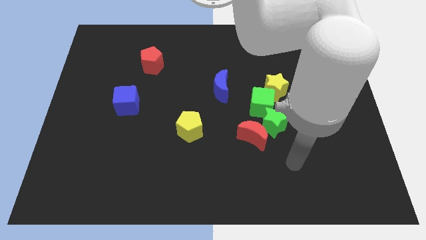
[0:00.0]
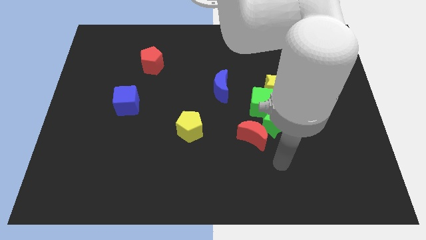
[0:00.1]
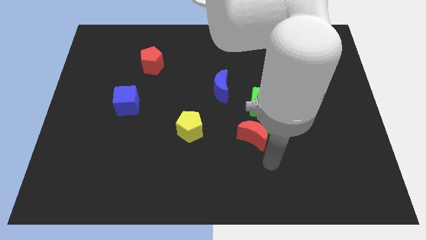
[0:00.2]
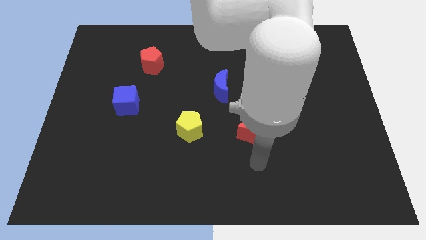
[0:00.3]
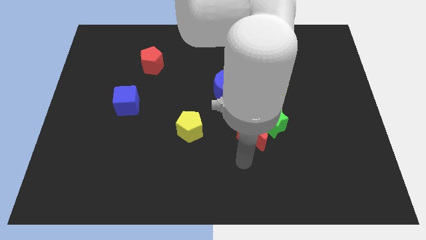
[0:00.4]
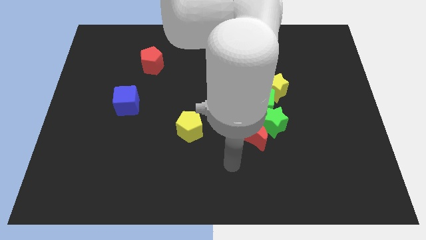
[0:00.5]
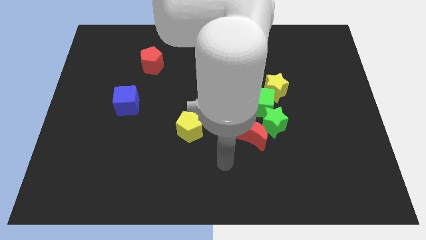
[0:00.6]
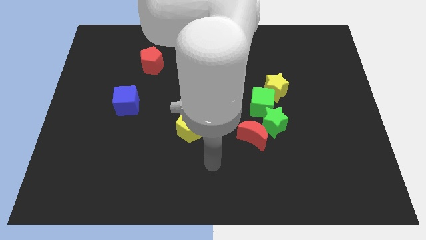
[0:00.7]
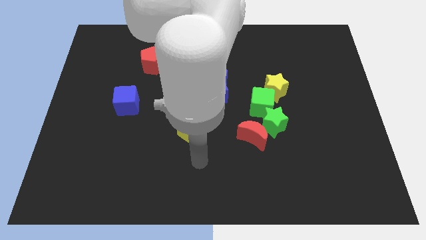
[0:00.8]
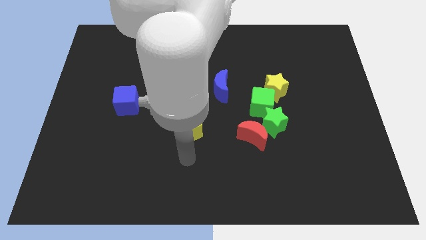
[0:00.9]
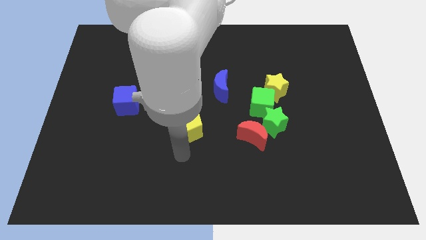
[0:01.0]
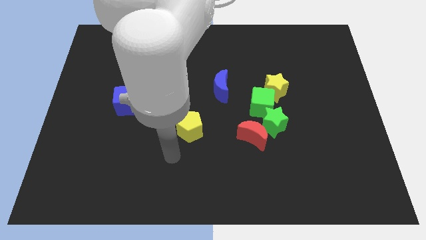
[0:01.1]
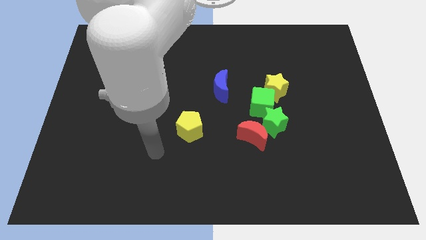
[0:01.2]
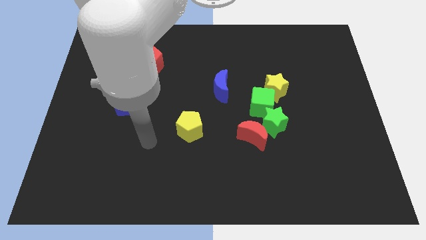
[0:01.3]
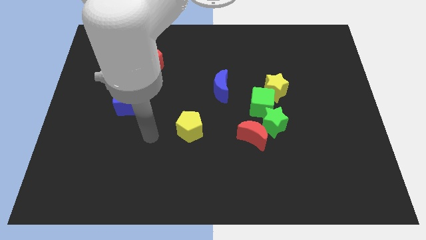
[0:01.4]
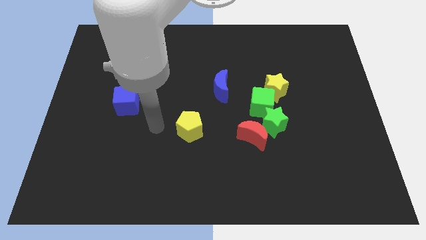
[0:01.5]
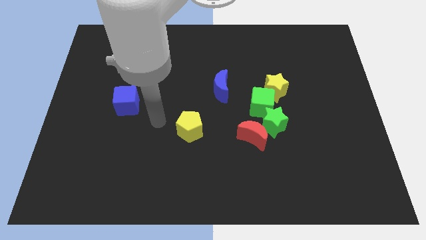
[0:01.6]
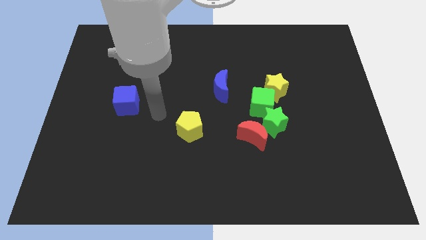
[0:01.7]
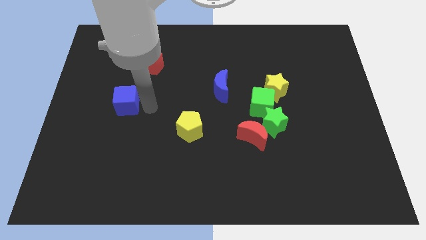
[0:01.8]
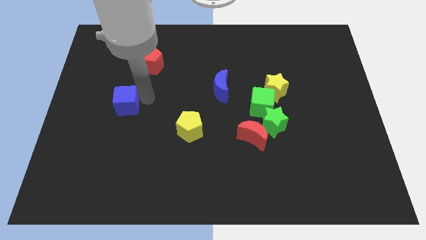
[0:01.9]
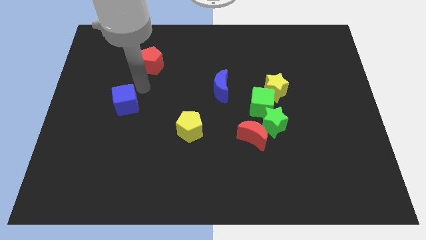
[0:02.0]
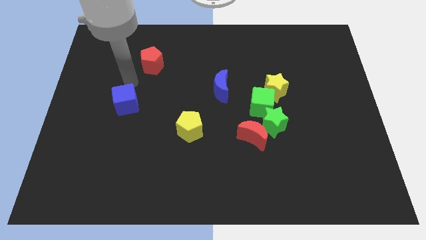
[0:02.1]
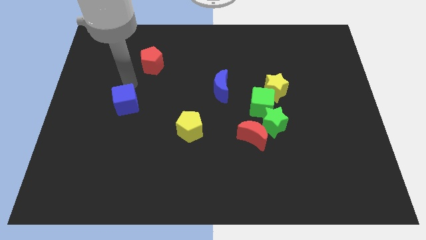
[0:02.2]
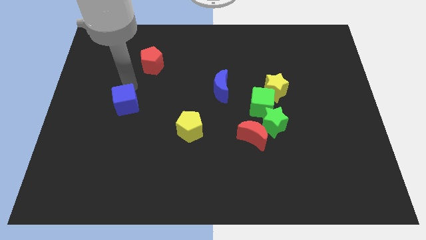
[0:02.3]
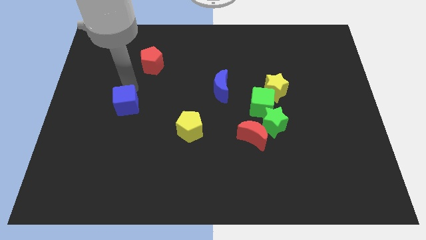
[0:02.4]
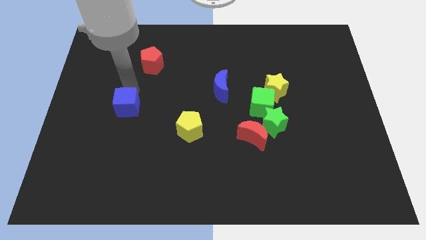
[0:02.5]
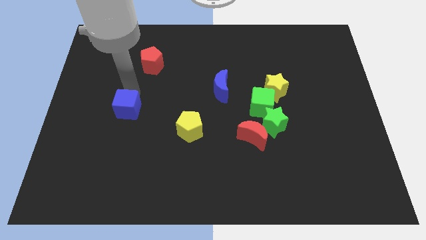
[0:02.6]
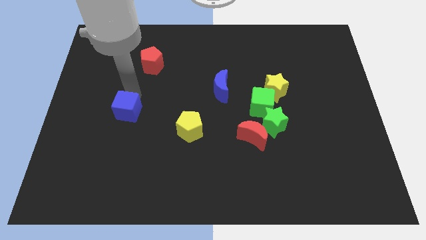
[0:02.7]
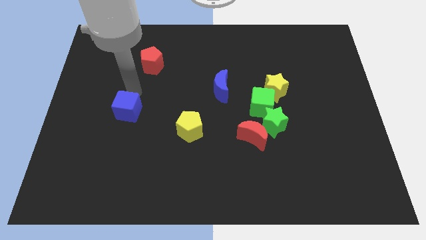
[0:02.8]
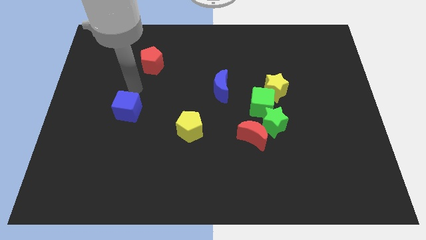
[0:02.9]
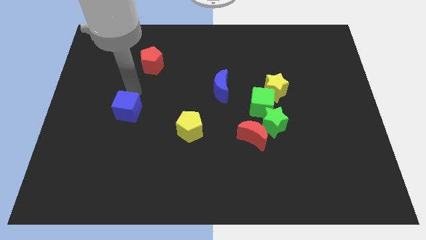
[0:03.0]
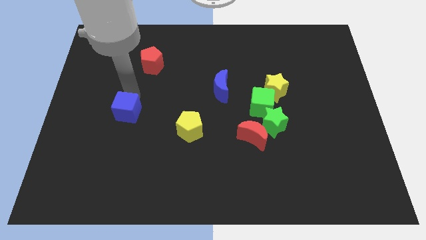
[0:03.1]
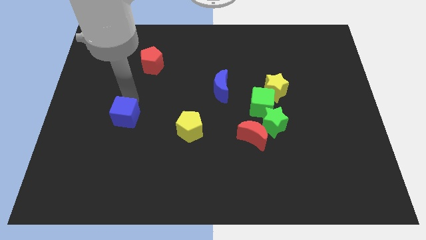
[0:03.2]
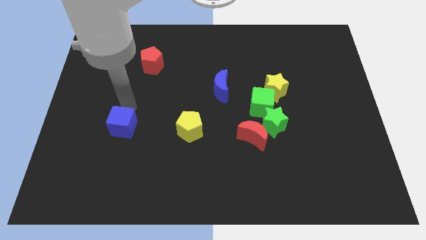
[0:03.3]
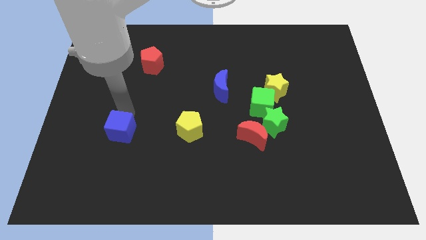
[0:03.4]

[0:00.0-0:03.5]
push the blue cube down somewhat

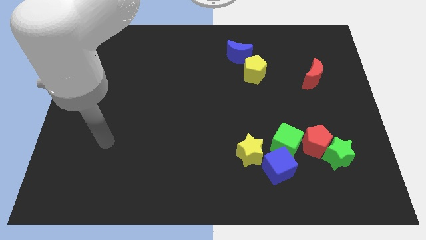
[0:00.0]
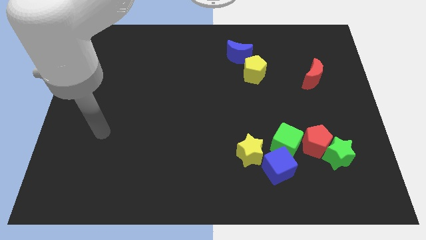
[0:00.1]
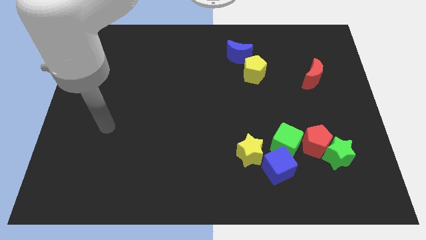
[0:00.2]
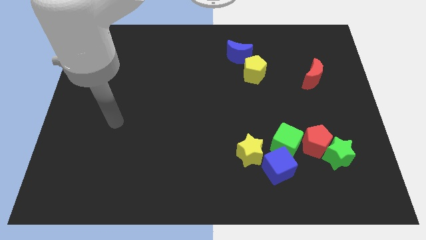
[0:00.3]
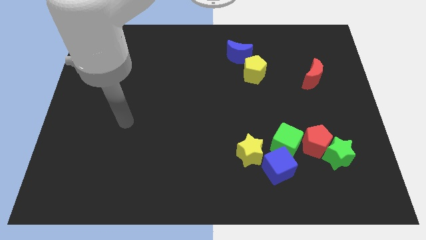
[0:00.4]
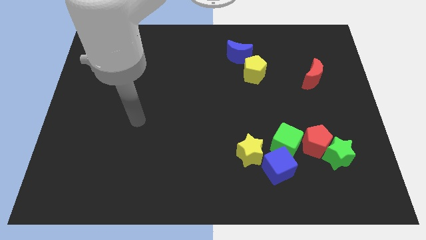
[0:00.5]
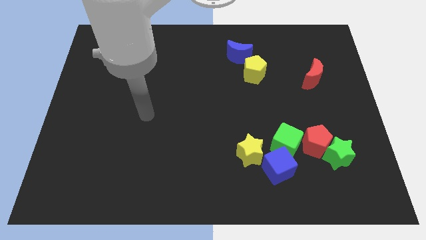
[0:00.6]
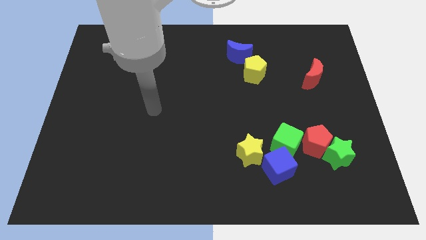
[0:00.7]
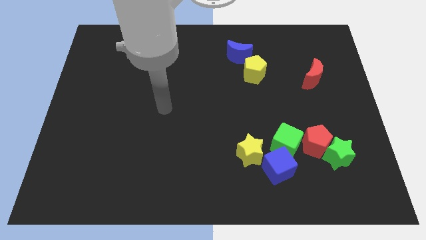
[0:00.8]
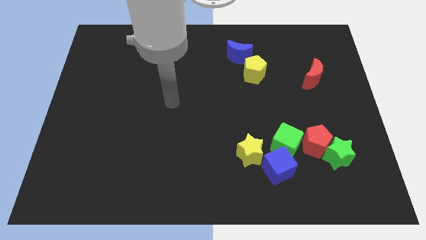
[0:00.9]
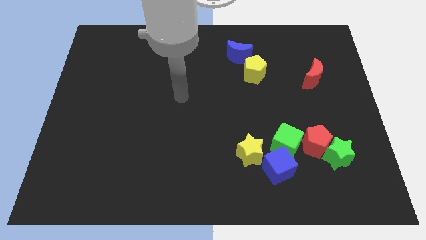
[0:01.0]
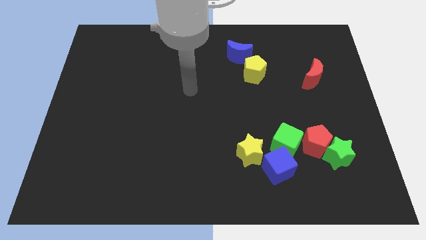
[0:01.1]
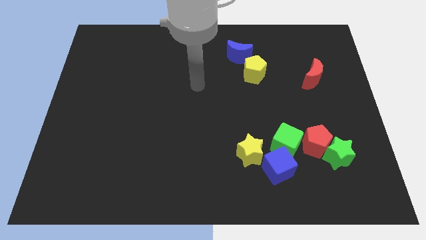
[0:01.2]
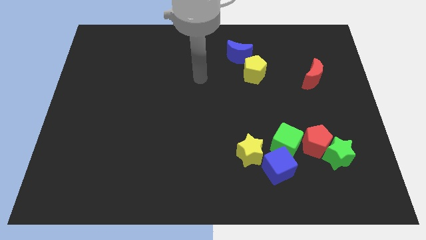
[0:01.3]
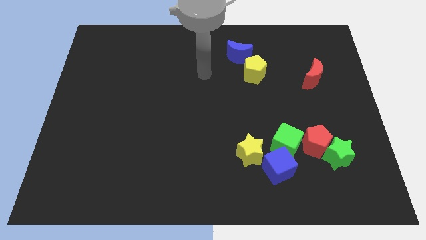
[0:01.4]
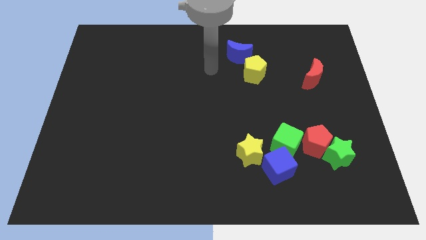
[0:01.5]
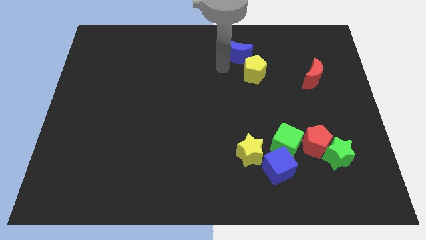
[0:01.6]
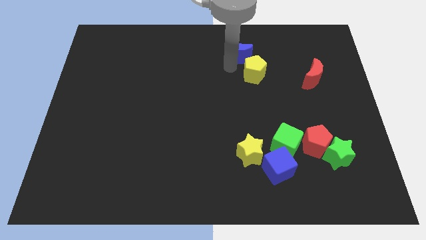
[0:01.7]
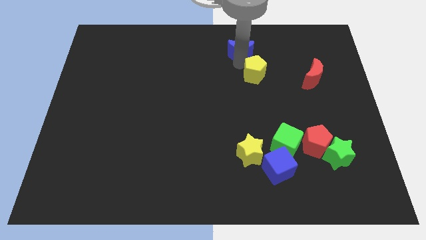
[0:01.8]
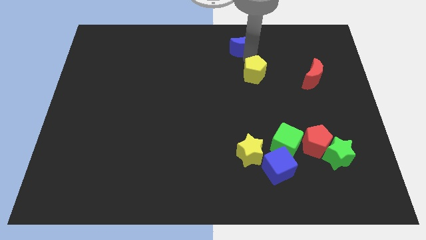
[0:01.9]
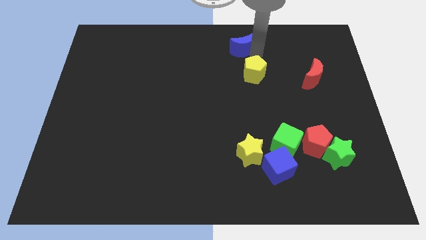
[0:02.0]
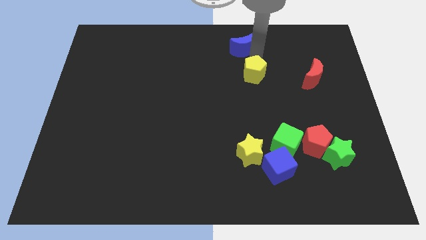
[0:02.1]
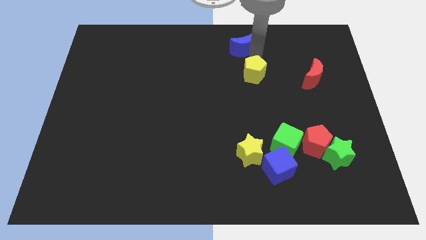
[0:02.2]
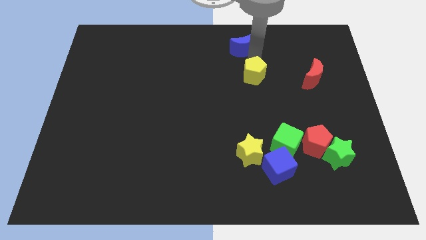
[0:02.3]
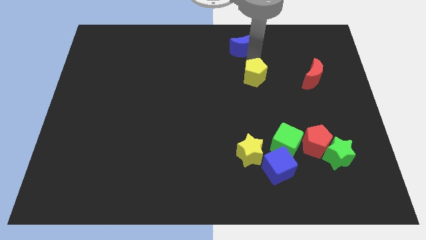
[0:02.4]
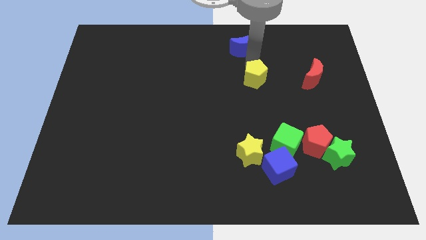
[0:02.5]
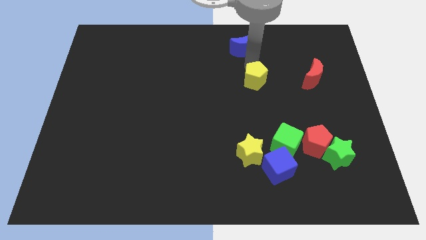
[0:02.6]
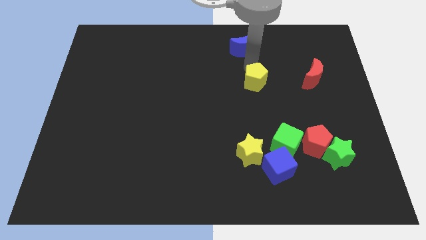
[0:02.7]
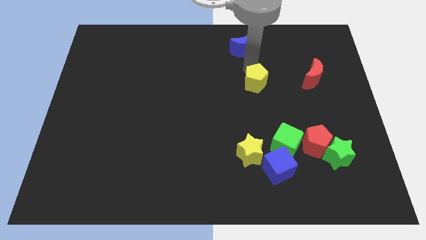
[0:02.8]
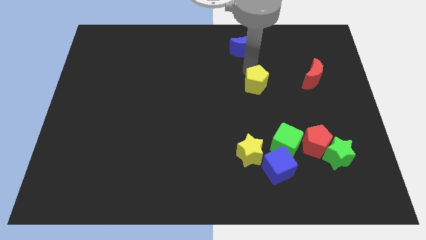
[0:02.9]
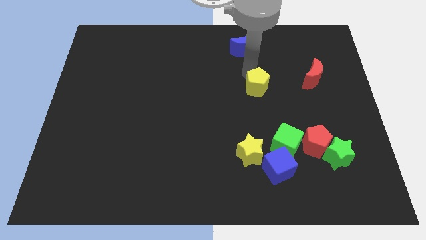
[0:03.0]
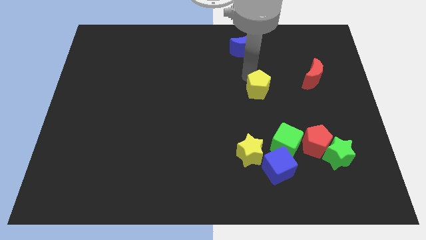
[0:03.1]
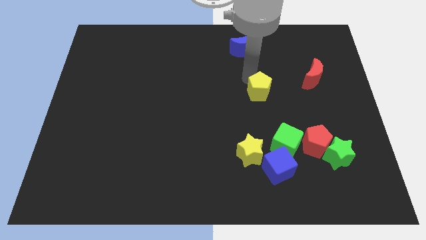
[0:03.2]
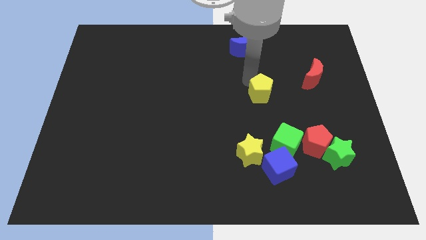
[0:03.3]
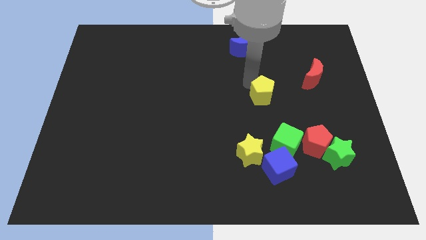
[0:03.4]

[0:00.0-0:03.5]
move the yellow pentagon slightly down

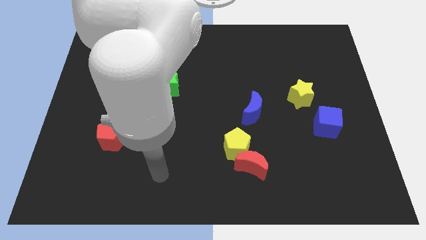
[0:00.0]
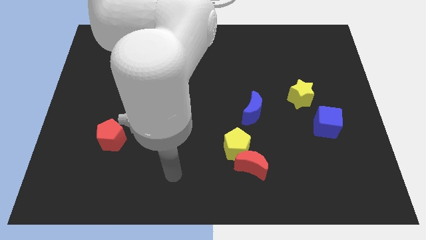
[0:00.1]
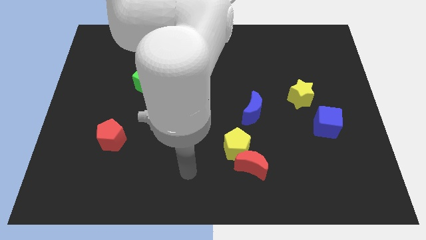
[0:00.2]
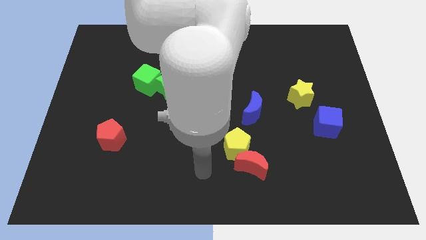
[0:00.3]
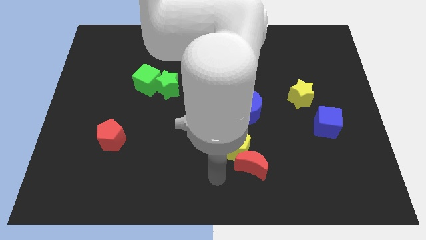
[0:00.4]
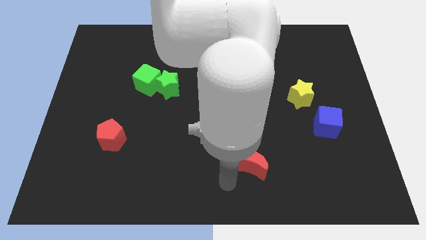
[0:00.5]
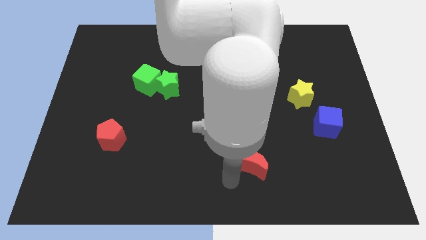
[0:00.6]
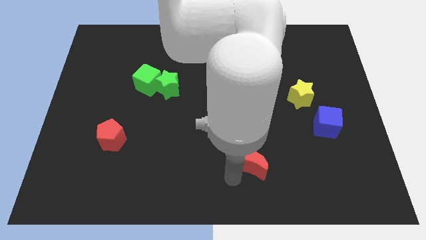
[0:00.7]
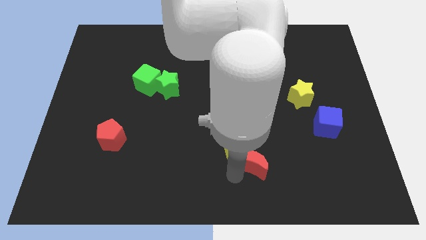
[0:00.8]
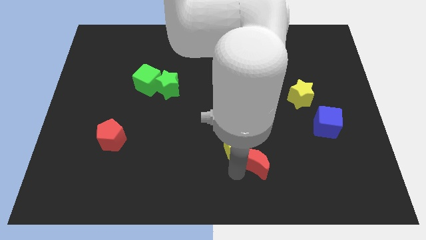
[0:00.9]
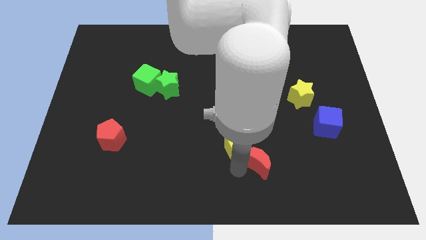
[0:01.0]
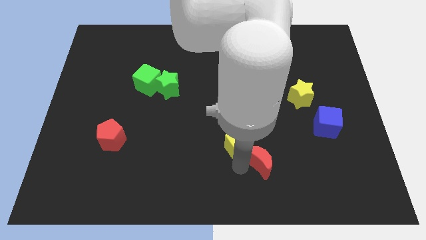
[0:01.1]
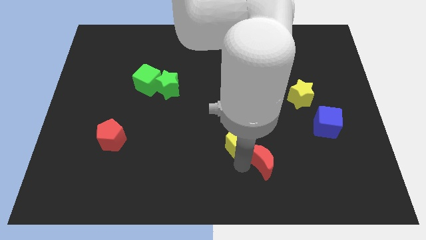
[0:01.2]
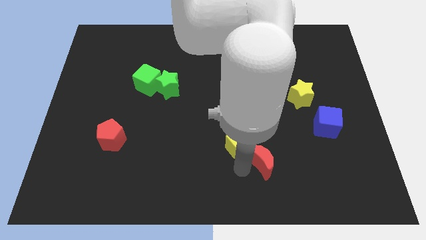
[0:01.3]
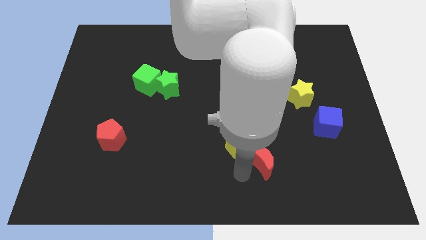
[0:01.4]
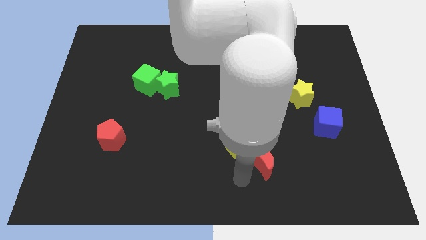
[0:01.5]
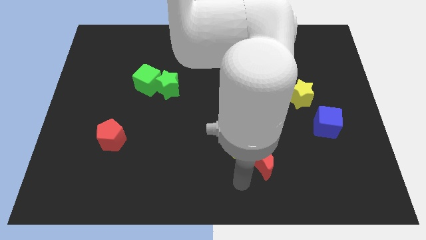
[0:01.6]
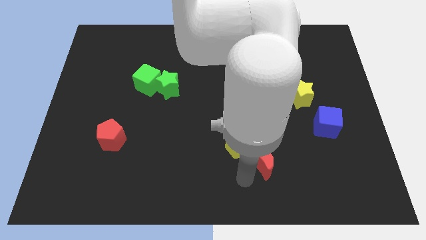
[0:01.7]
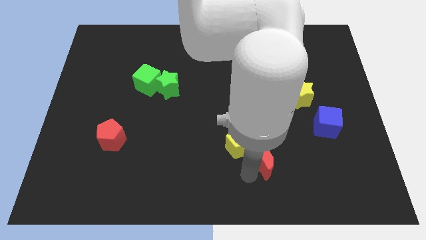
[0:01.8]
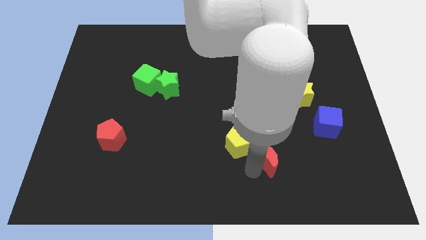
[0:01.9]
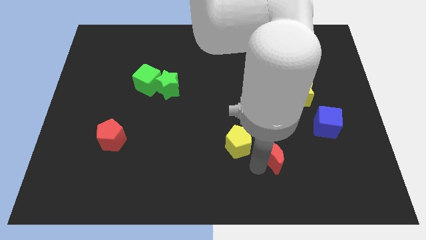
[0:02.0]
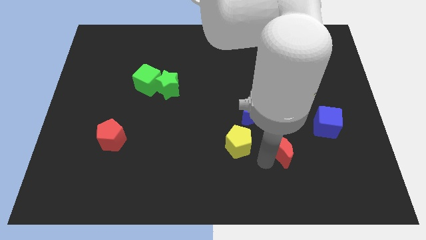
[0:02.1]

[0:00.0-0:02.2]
move the red moon a little bit upwards and then right
